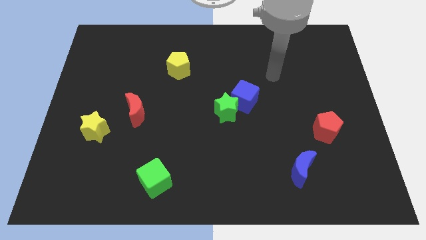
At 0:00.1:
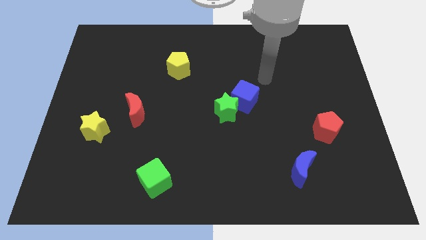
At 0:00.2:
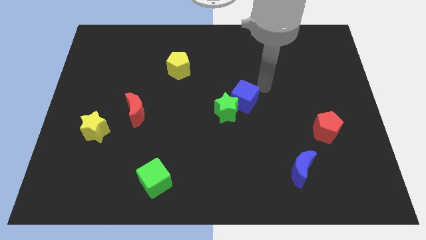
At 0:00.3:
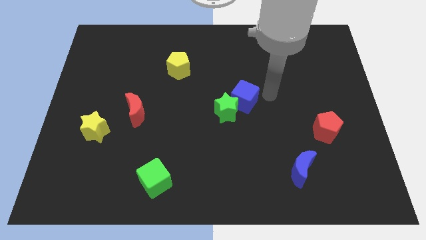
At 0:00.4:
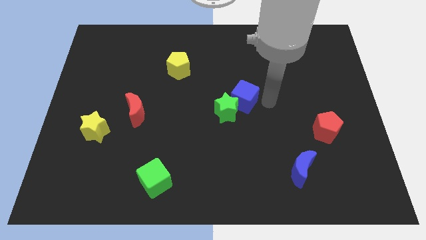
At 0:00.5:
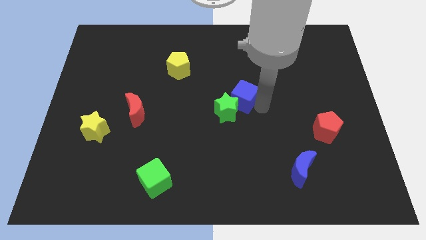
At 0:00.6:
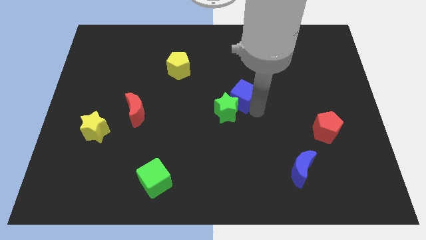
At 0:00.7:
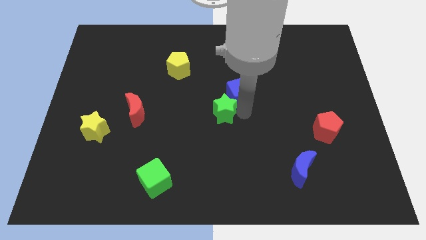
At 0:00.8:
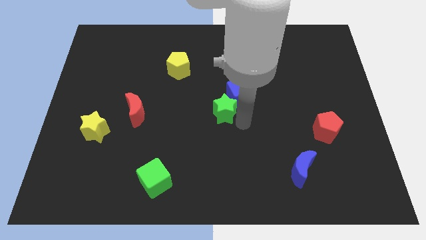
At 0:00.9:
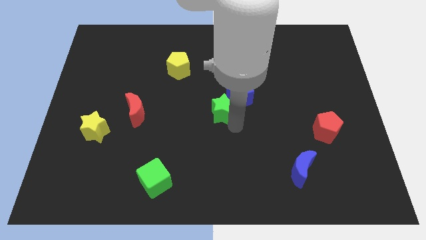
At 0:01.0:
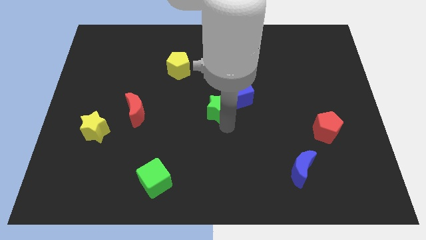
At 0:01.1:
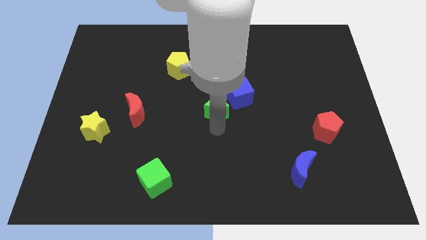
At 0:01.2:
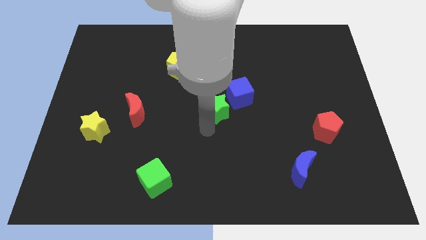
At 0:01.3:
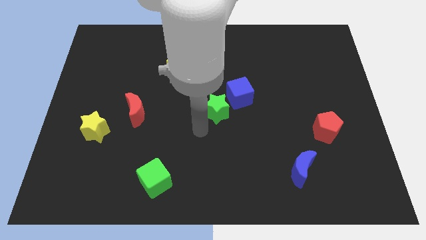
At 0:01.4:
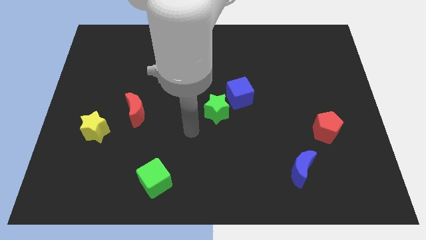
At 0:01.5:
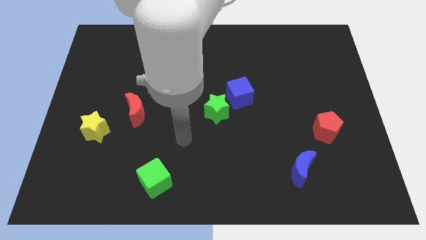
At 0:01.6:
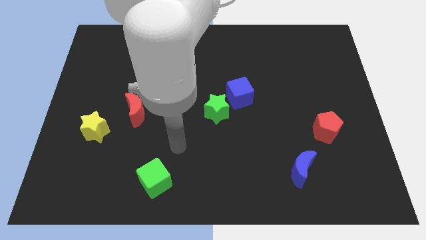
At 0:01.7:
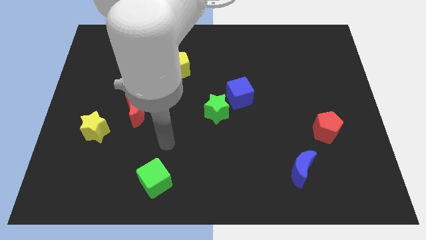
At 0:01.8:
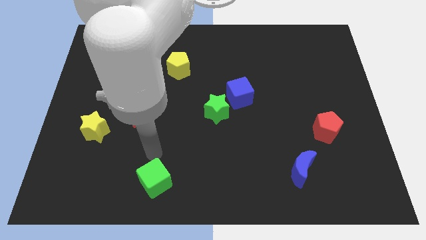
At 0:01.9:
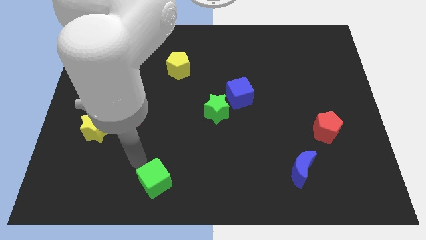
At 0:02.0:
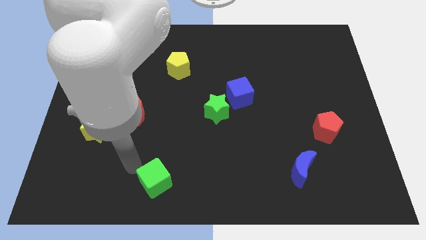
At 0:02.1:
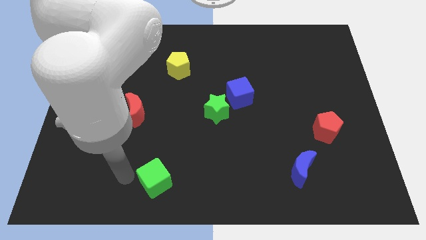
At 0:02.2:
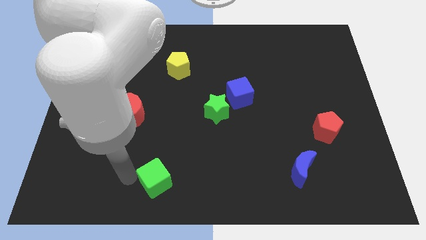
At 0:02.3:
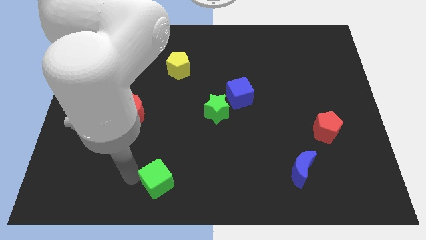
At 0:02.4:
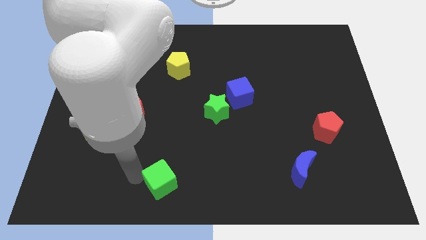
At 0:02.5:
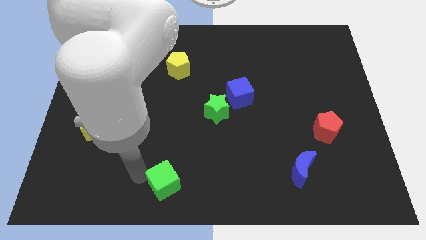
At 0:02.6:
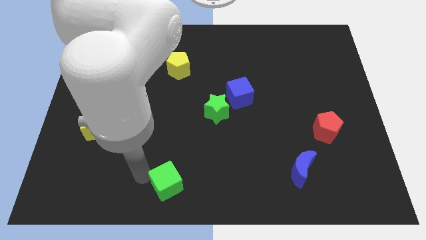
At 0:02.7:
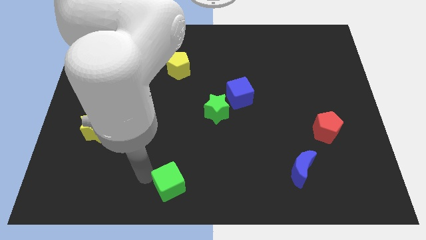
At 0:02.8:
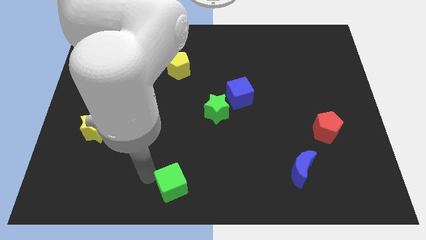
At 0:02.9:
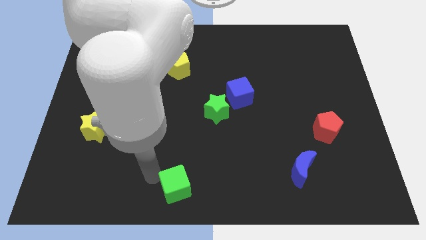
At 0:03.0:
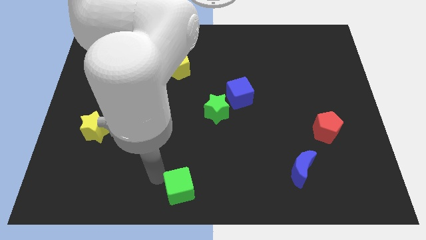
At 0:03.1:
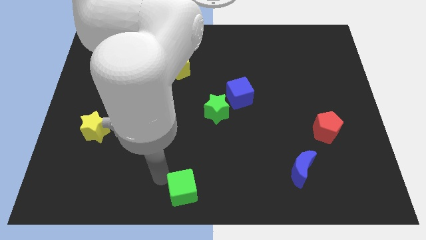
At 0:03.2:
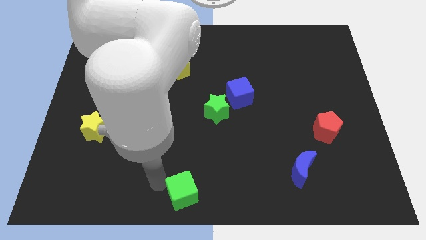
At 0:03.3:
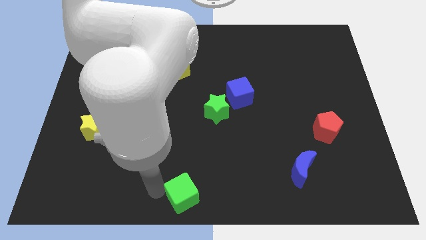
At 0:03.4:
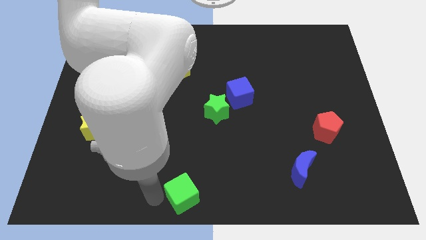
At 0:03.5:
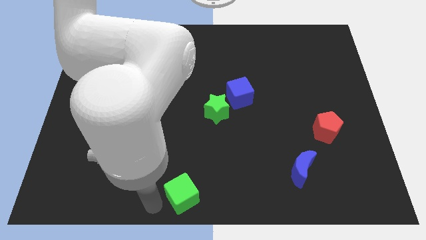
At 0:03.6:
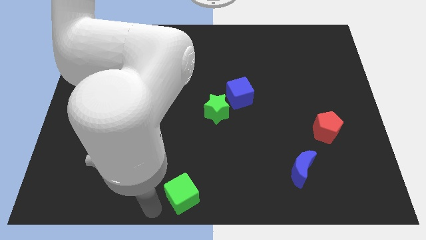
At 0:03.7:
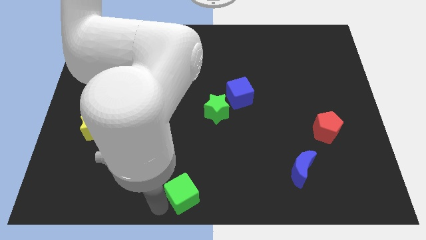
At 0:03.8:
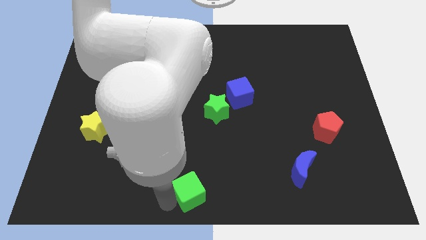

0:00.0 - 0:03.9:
slide the green cube to the right a little bit

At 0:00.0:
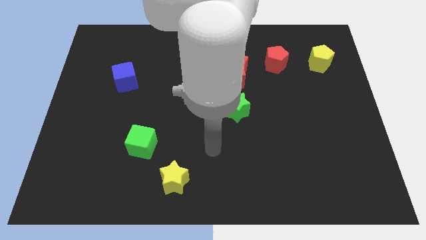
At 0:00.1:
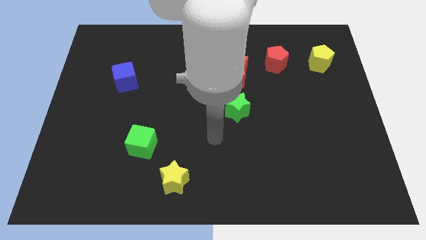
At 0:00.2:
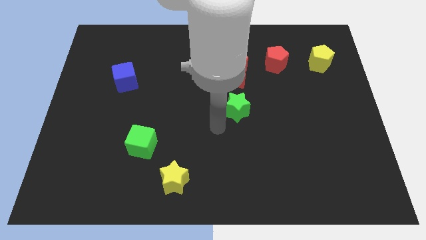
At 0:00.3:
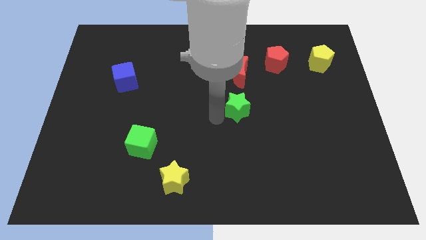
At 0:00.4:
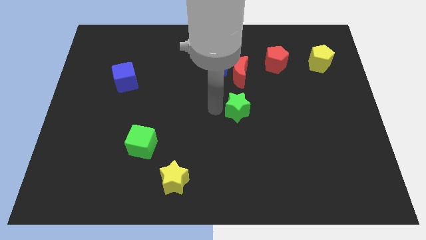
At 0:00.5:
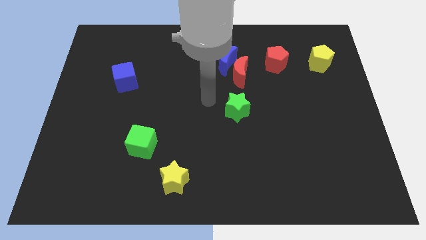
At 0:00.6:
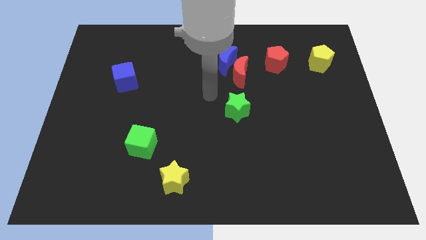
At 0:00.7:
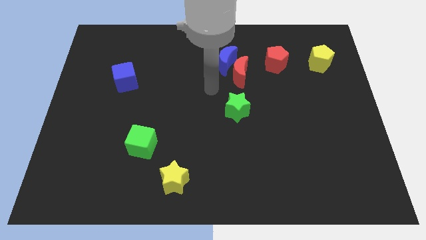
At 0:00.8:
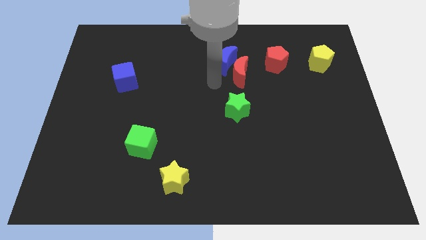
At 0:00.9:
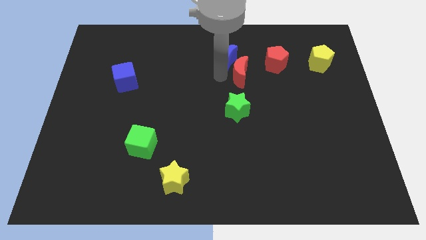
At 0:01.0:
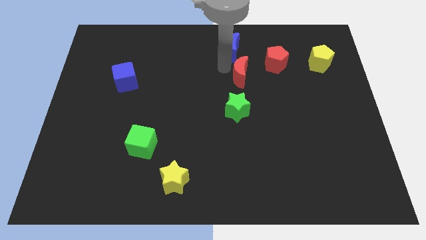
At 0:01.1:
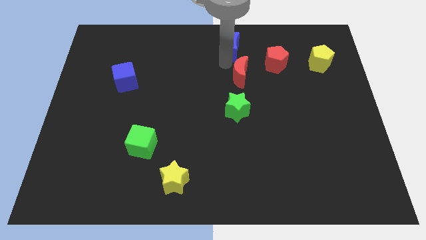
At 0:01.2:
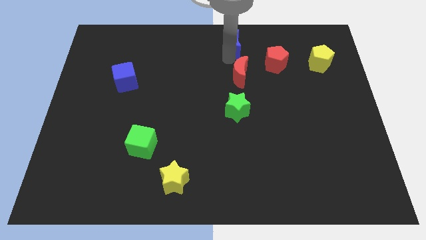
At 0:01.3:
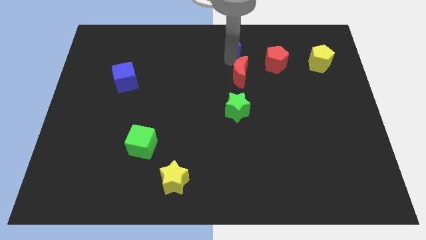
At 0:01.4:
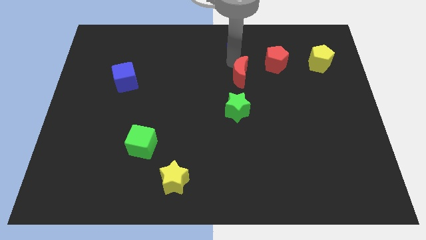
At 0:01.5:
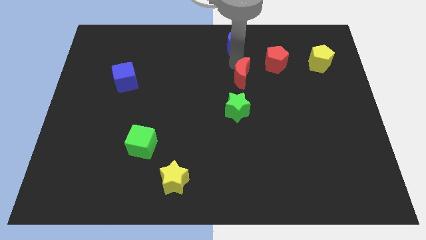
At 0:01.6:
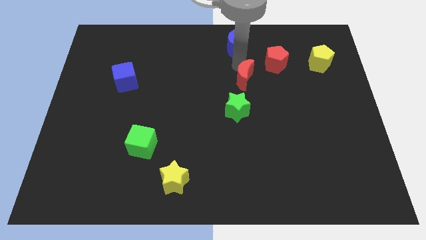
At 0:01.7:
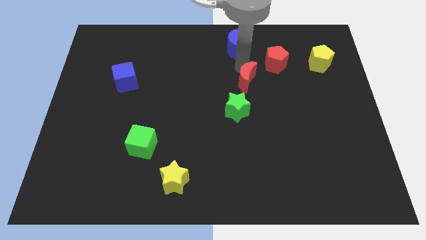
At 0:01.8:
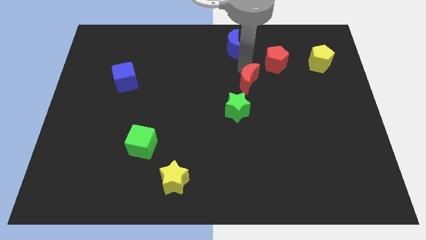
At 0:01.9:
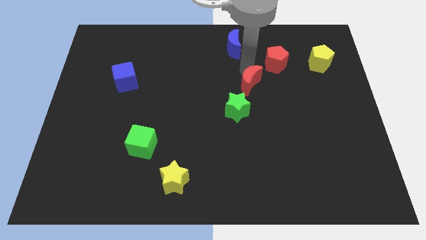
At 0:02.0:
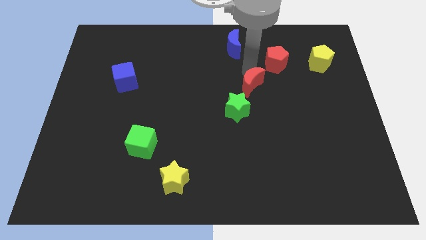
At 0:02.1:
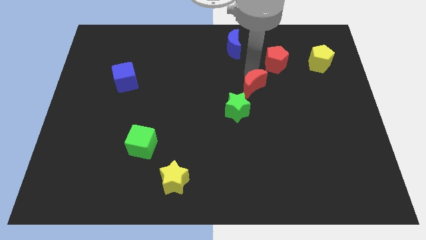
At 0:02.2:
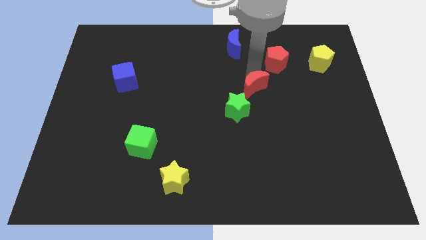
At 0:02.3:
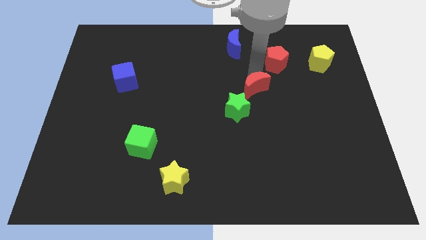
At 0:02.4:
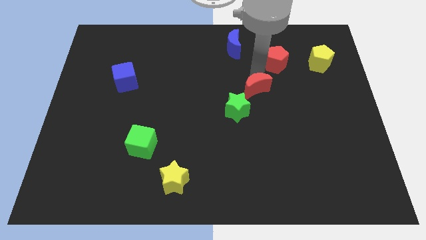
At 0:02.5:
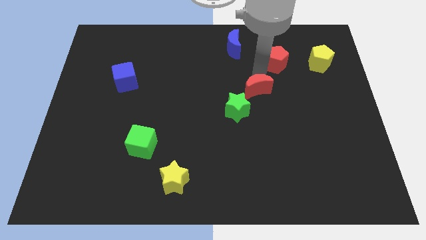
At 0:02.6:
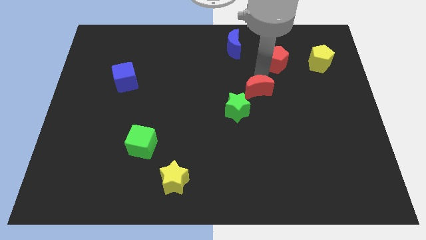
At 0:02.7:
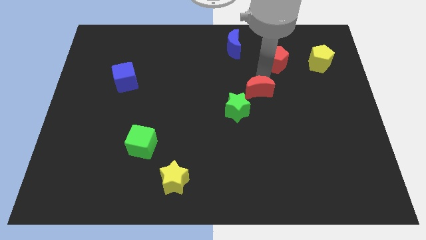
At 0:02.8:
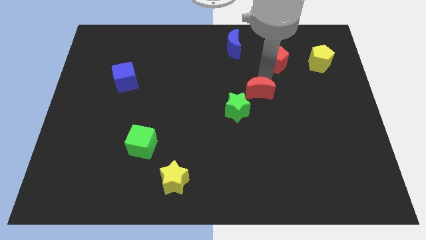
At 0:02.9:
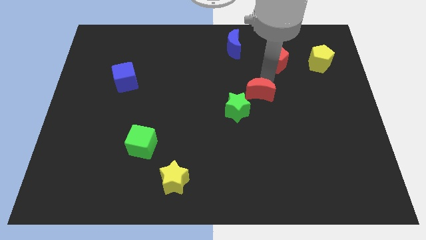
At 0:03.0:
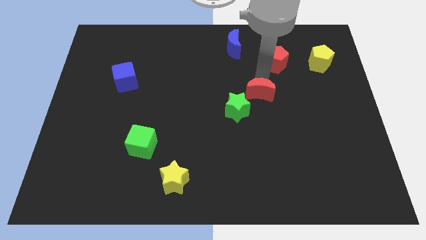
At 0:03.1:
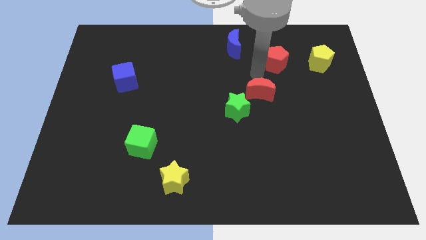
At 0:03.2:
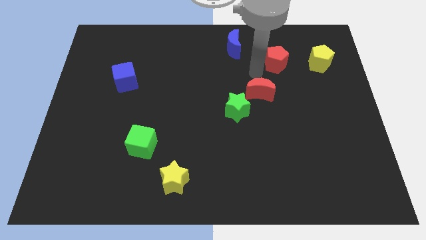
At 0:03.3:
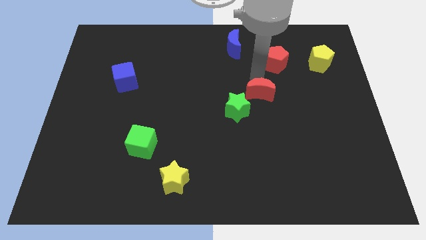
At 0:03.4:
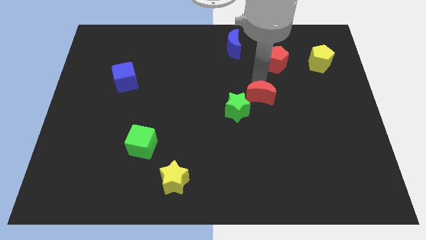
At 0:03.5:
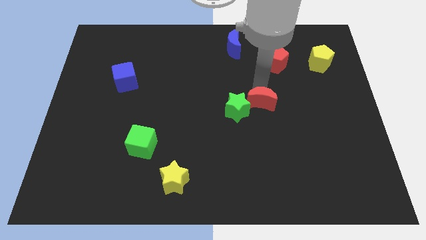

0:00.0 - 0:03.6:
slightly push the red moon down

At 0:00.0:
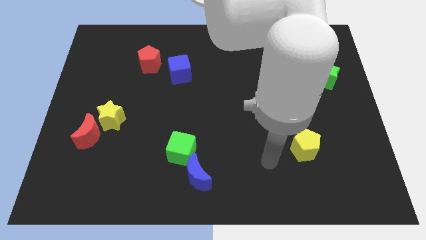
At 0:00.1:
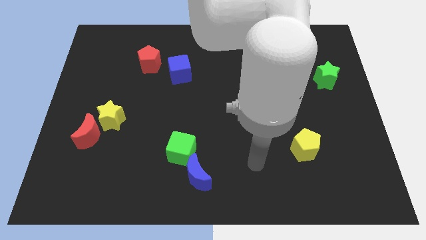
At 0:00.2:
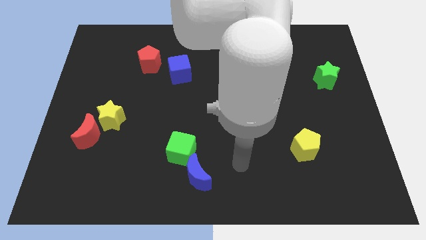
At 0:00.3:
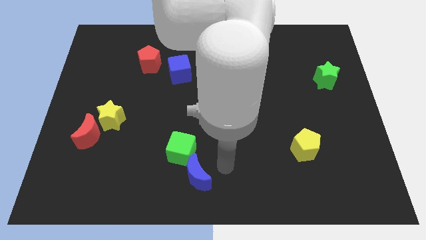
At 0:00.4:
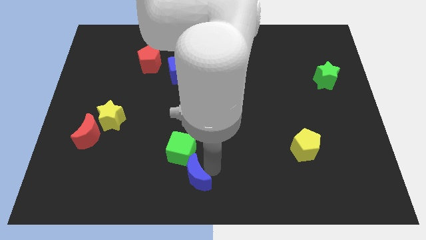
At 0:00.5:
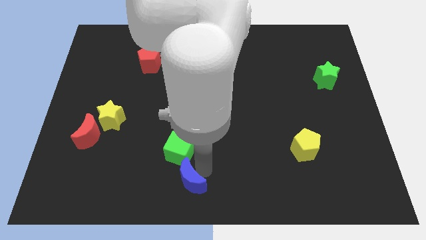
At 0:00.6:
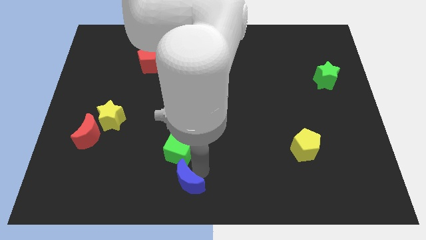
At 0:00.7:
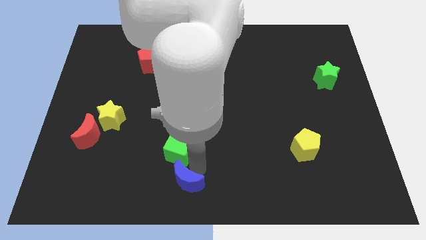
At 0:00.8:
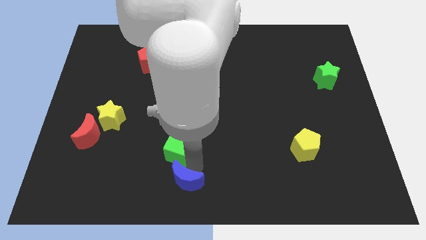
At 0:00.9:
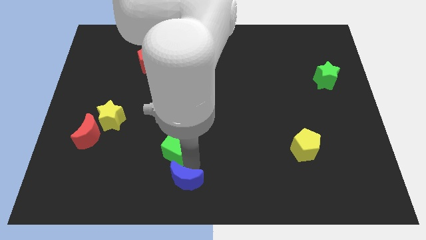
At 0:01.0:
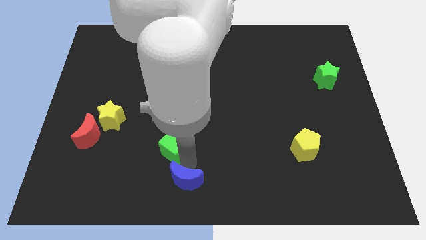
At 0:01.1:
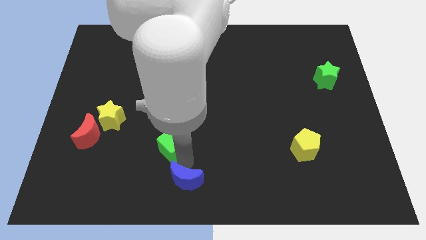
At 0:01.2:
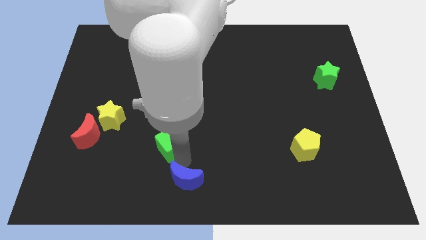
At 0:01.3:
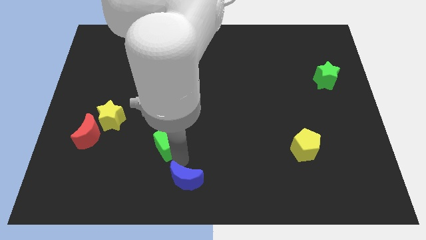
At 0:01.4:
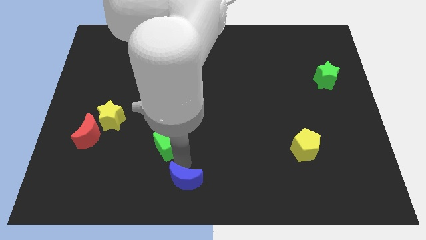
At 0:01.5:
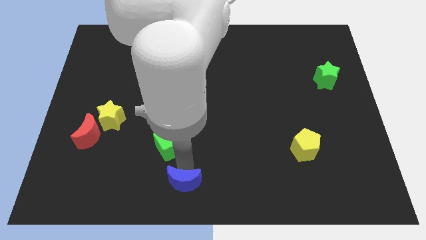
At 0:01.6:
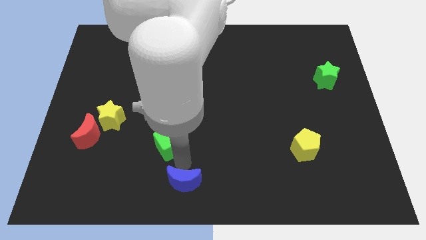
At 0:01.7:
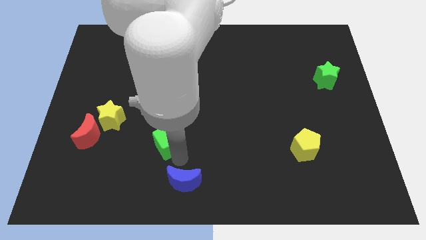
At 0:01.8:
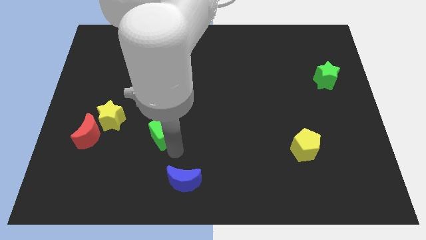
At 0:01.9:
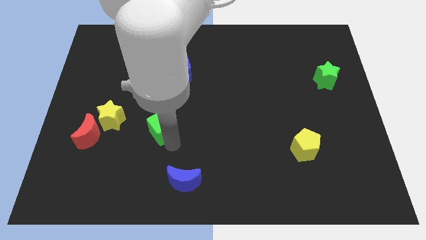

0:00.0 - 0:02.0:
push the green cube diagonally up and left somewhat
